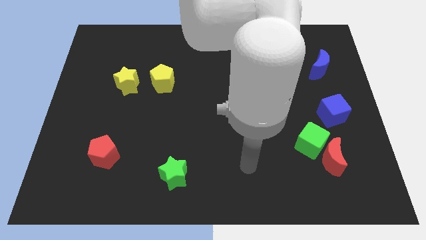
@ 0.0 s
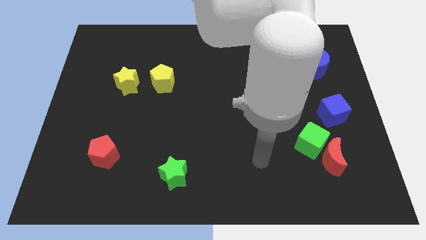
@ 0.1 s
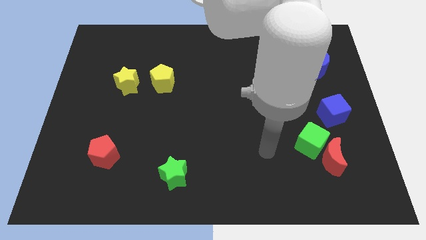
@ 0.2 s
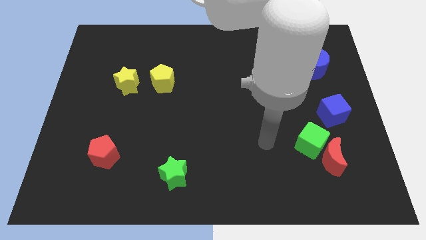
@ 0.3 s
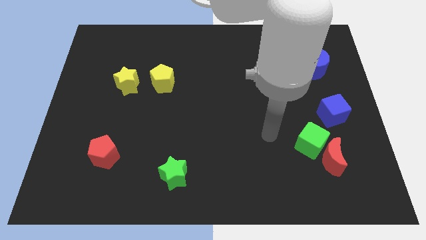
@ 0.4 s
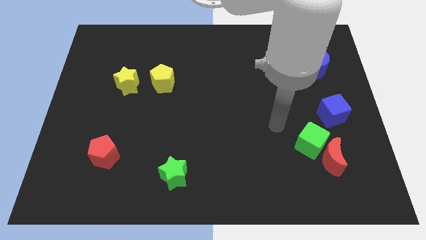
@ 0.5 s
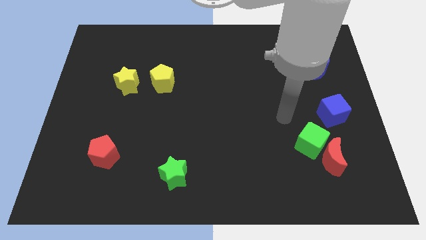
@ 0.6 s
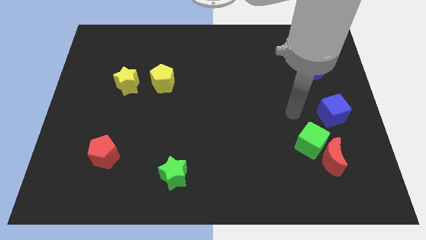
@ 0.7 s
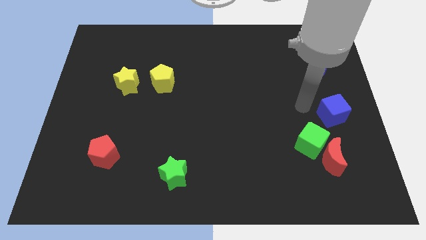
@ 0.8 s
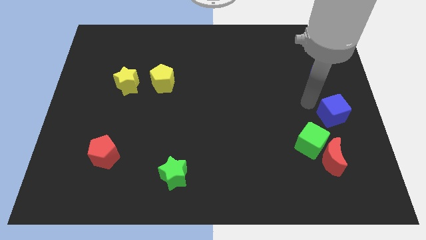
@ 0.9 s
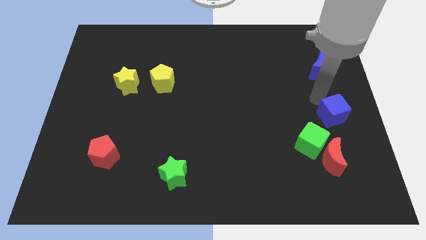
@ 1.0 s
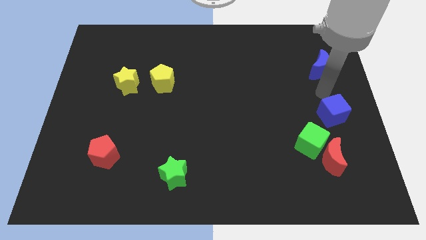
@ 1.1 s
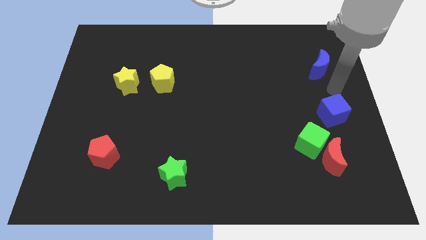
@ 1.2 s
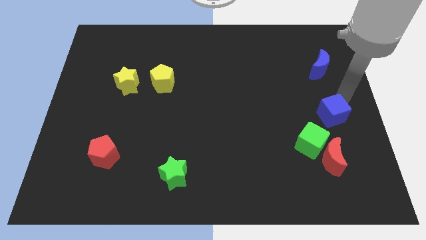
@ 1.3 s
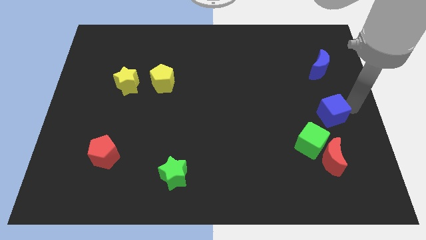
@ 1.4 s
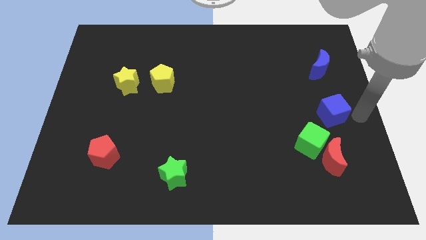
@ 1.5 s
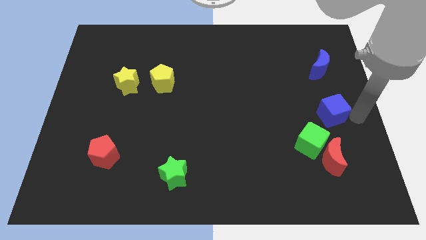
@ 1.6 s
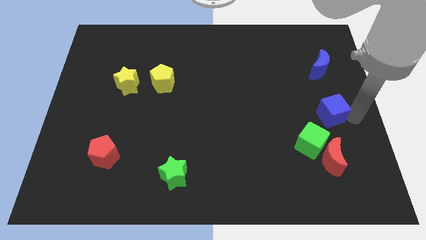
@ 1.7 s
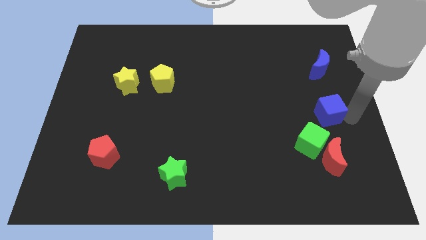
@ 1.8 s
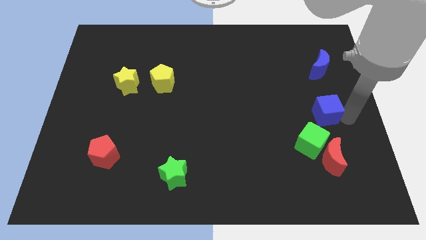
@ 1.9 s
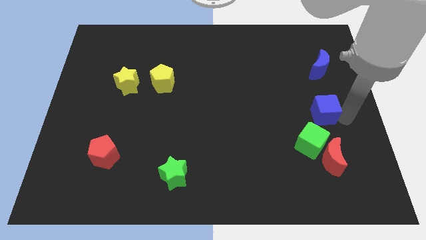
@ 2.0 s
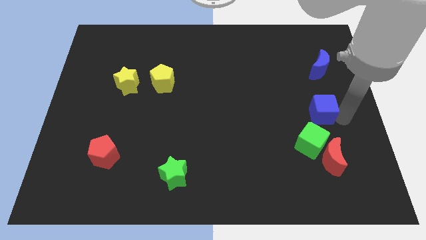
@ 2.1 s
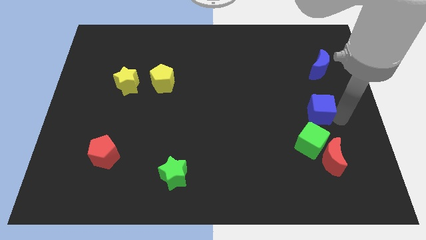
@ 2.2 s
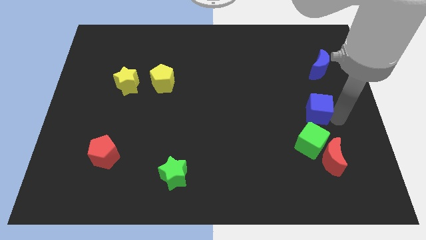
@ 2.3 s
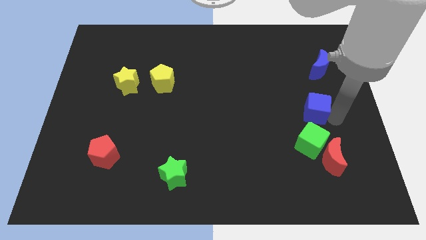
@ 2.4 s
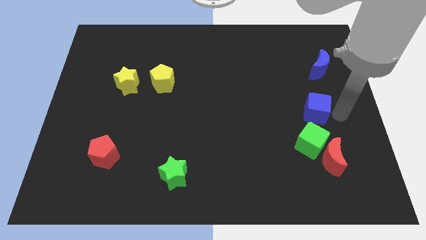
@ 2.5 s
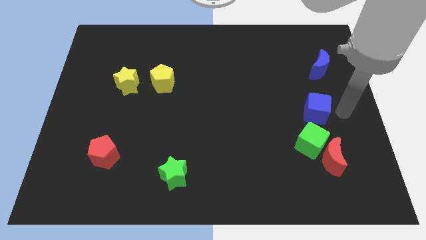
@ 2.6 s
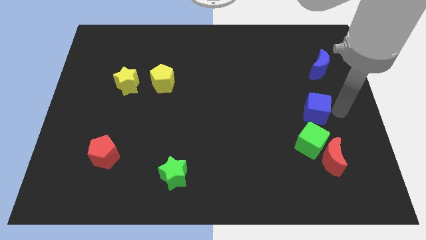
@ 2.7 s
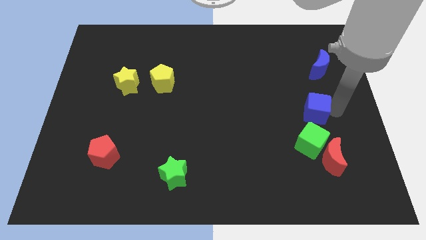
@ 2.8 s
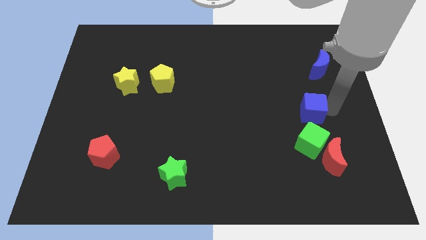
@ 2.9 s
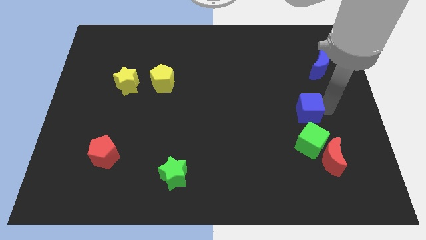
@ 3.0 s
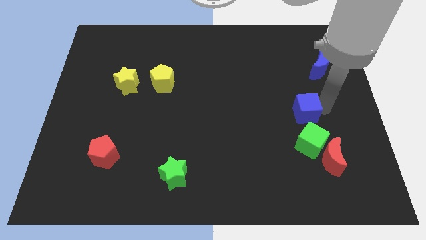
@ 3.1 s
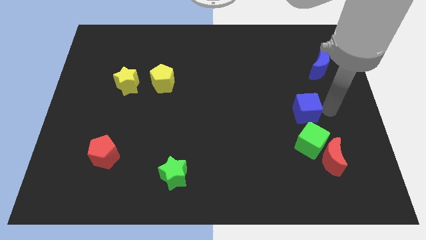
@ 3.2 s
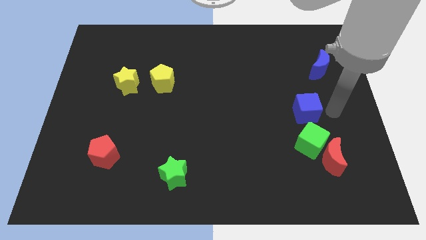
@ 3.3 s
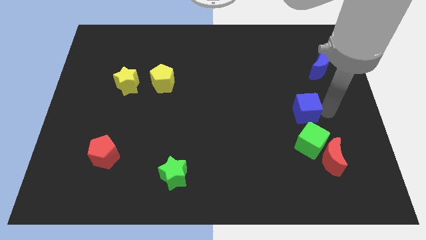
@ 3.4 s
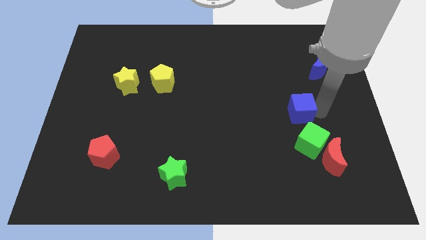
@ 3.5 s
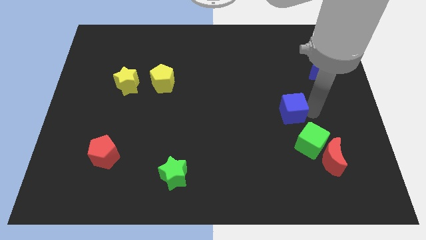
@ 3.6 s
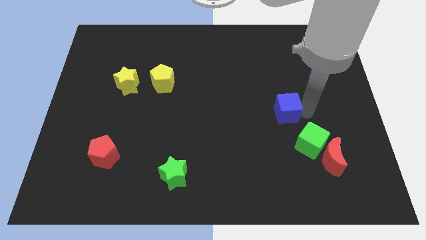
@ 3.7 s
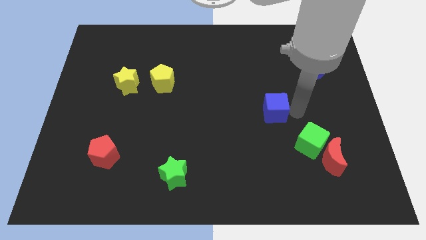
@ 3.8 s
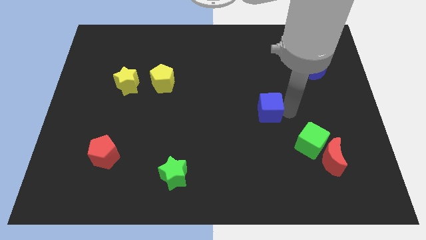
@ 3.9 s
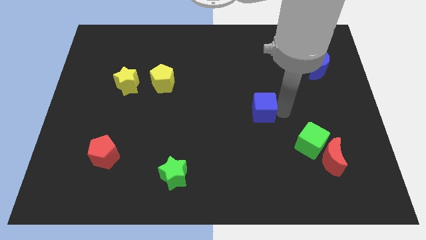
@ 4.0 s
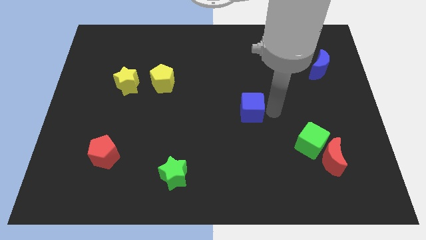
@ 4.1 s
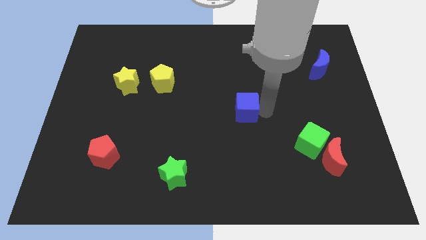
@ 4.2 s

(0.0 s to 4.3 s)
push the blue cube left

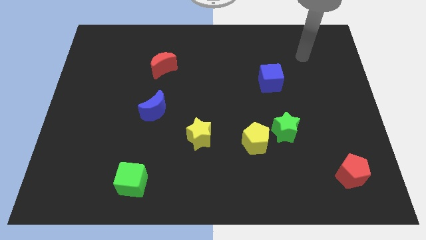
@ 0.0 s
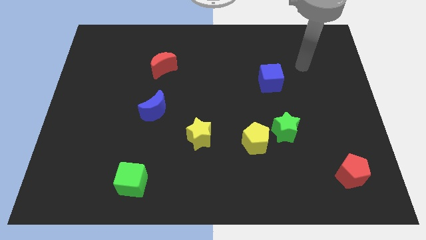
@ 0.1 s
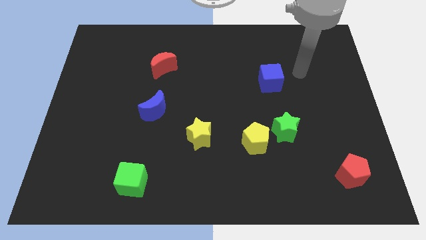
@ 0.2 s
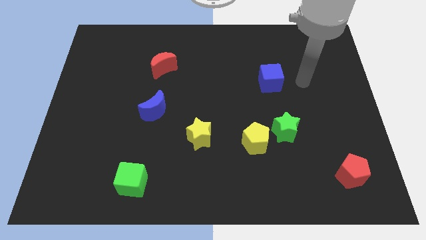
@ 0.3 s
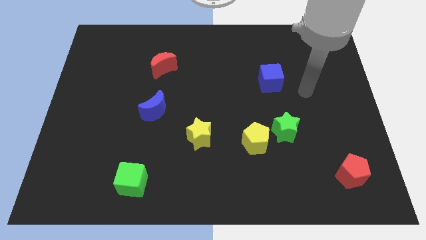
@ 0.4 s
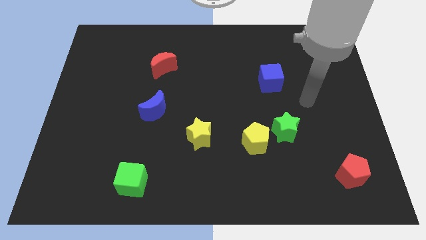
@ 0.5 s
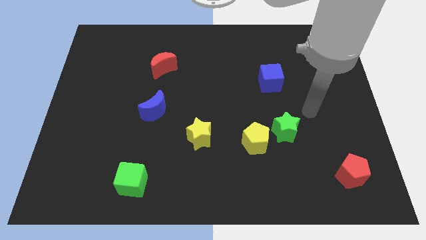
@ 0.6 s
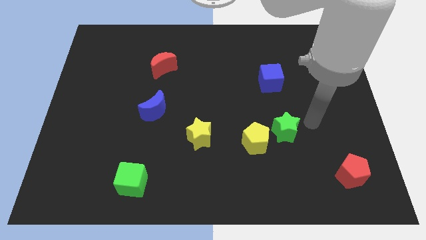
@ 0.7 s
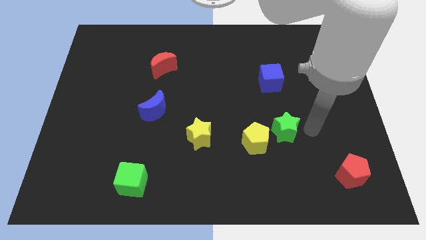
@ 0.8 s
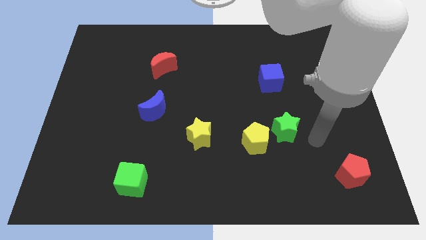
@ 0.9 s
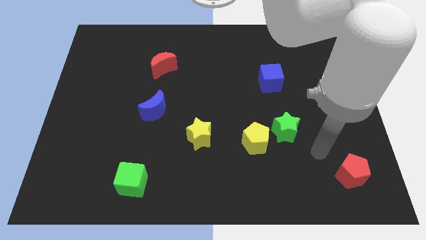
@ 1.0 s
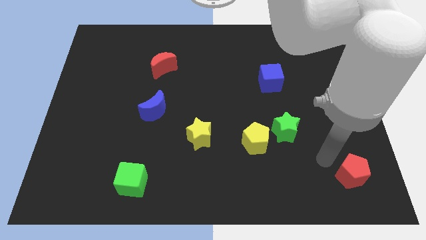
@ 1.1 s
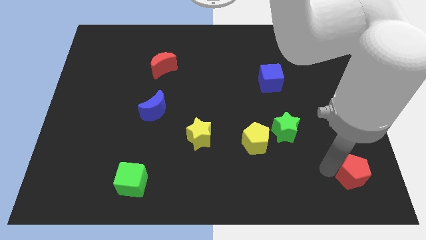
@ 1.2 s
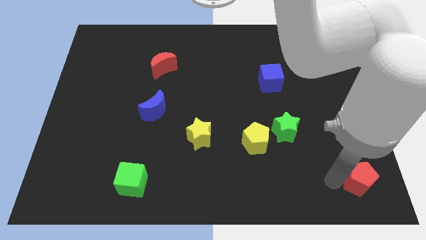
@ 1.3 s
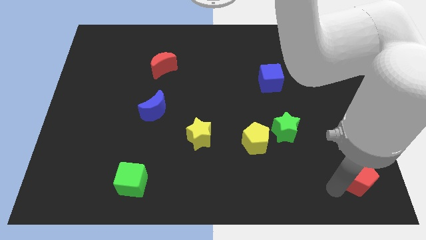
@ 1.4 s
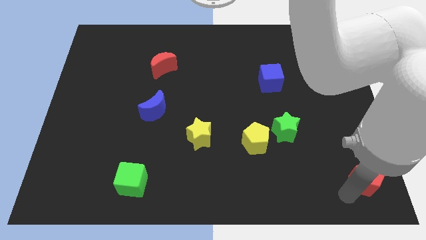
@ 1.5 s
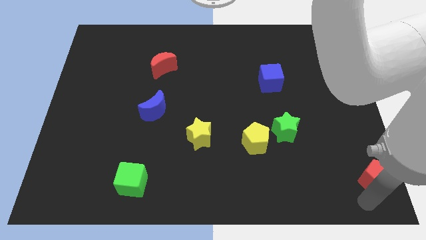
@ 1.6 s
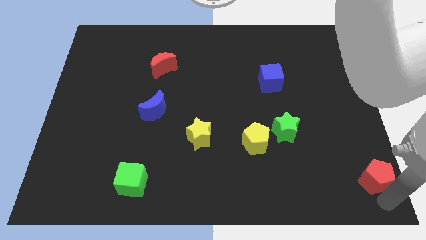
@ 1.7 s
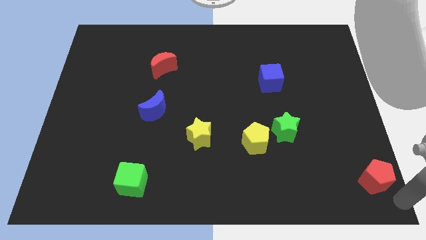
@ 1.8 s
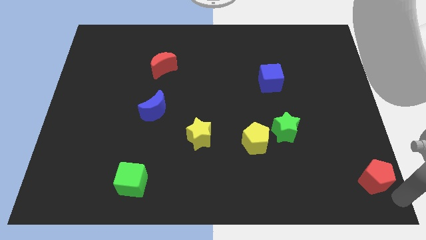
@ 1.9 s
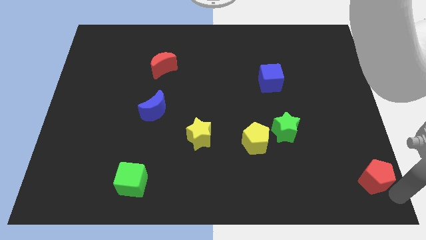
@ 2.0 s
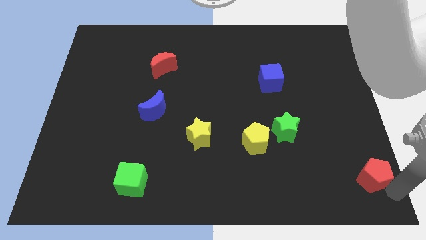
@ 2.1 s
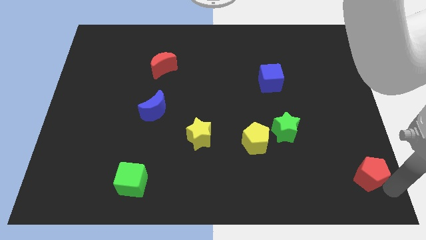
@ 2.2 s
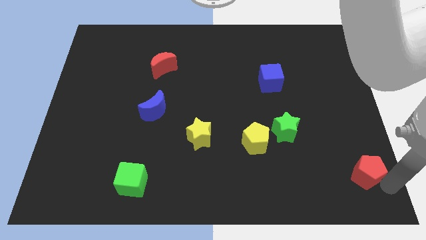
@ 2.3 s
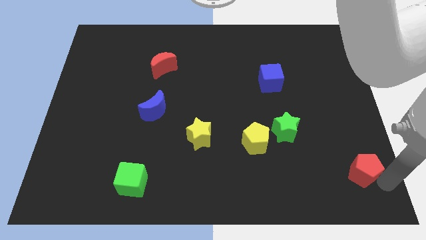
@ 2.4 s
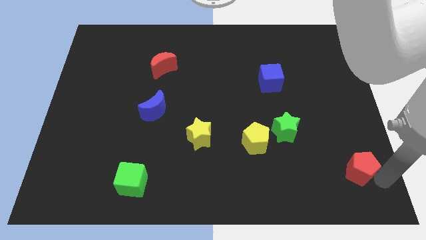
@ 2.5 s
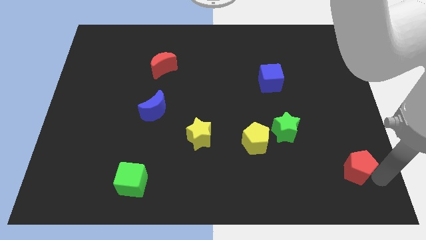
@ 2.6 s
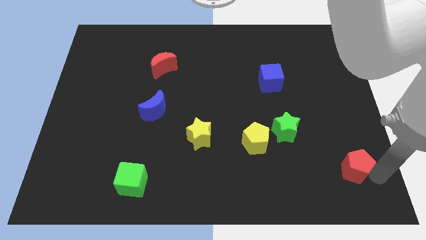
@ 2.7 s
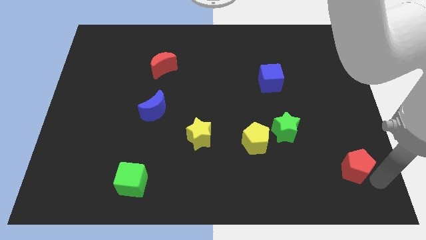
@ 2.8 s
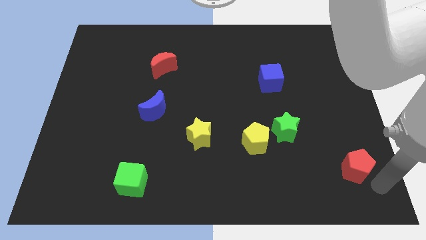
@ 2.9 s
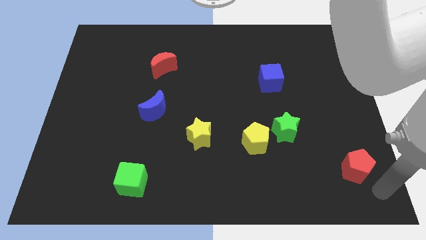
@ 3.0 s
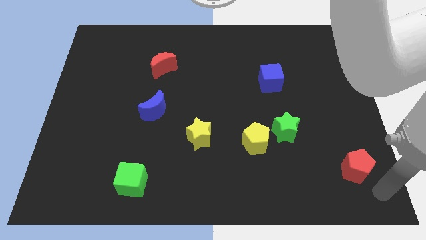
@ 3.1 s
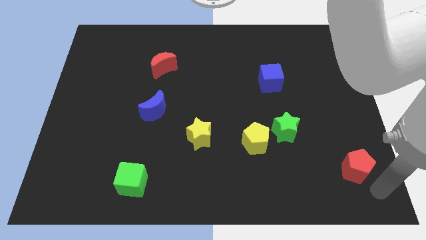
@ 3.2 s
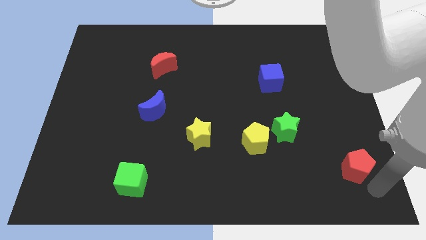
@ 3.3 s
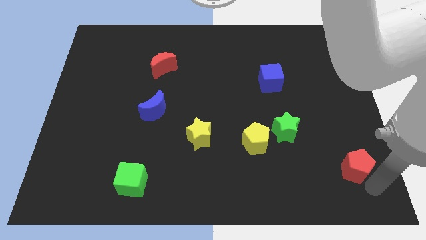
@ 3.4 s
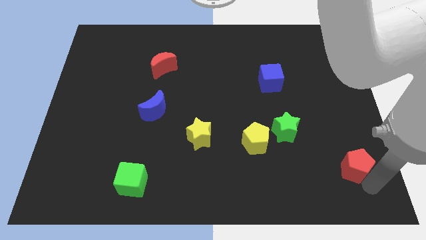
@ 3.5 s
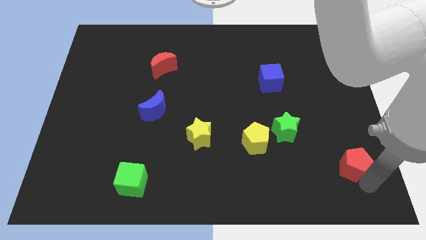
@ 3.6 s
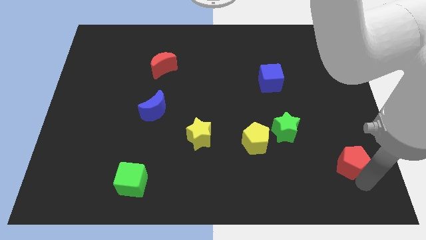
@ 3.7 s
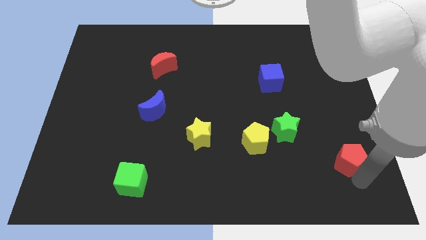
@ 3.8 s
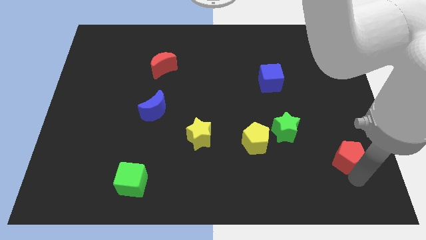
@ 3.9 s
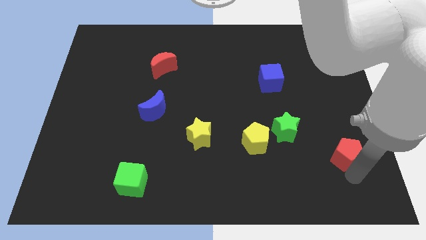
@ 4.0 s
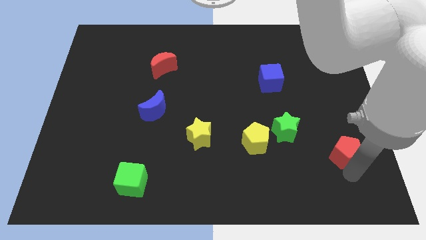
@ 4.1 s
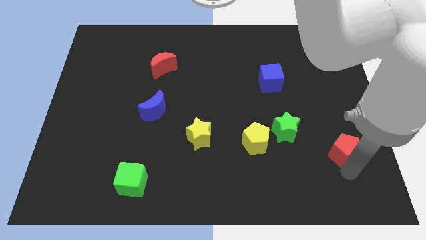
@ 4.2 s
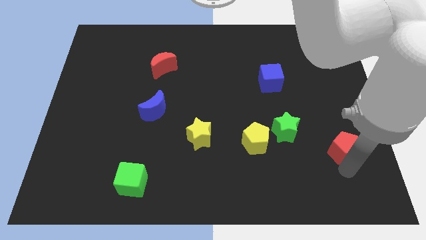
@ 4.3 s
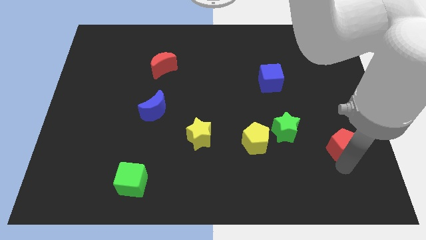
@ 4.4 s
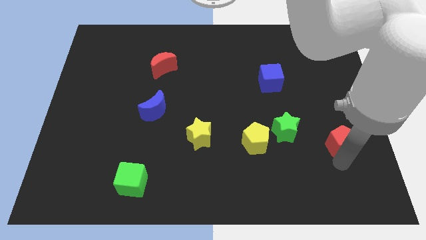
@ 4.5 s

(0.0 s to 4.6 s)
slightly push the red pentagon upwards
